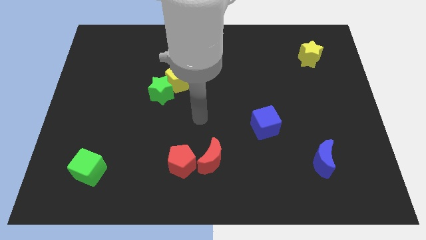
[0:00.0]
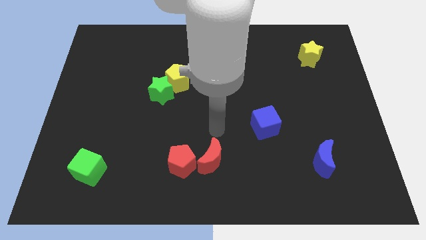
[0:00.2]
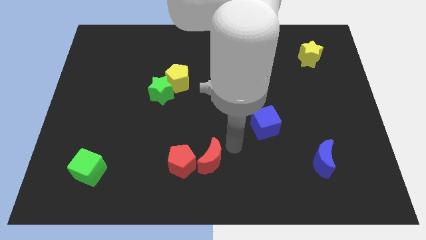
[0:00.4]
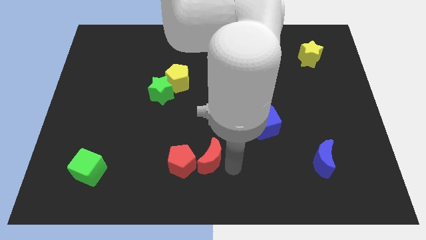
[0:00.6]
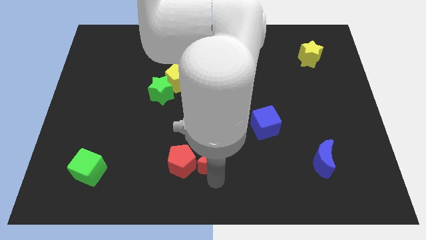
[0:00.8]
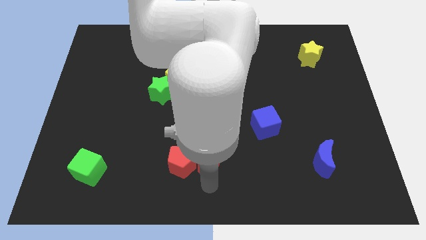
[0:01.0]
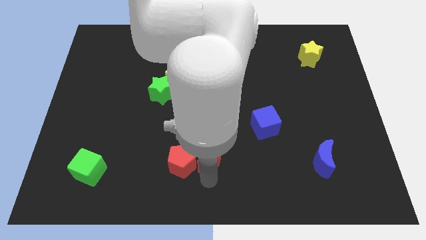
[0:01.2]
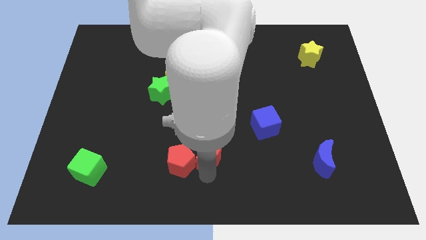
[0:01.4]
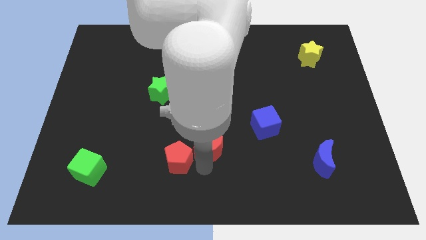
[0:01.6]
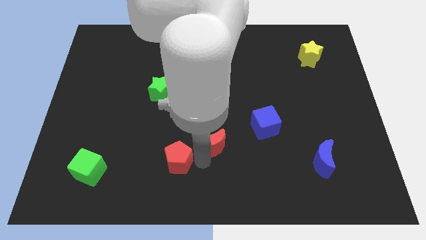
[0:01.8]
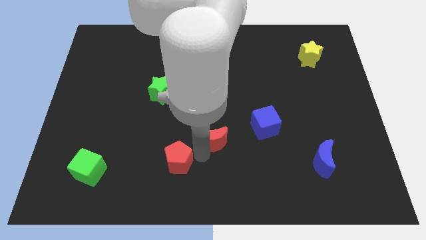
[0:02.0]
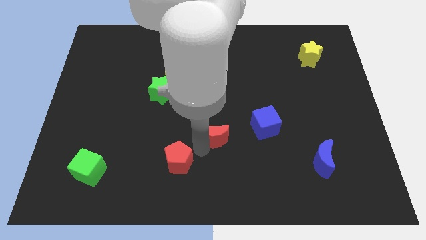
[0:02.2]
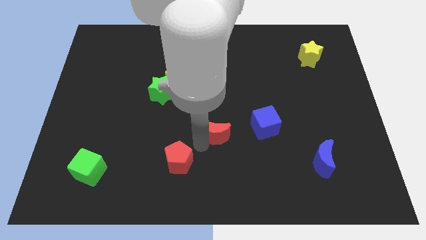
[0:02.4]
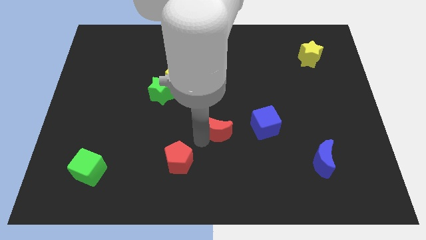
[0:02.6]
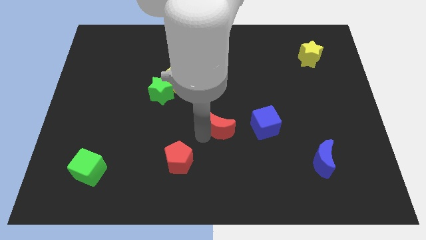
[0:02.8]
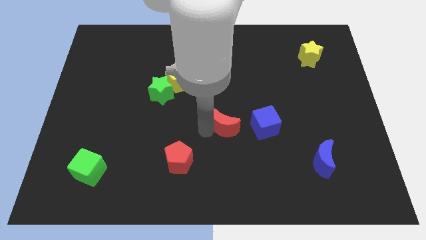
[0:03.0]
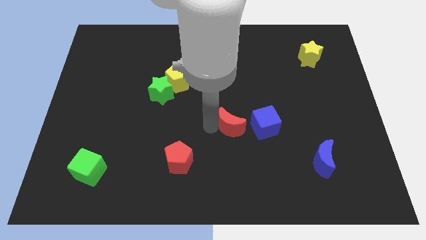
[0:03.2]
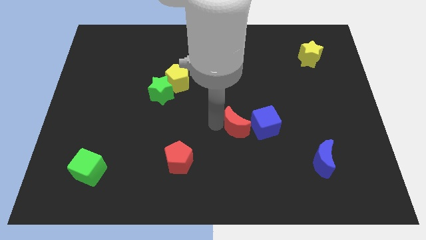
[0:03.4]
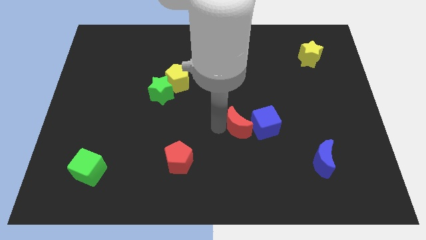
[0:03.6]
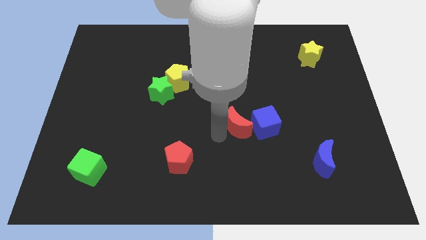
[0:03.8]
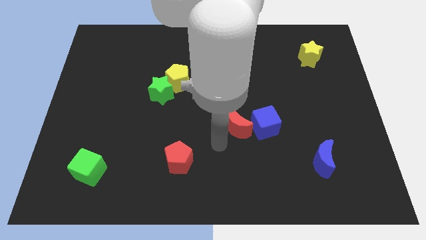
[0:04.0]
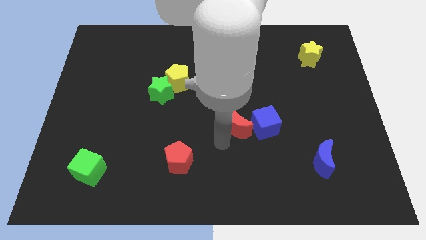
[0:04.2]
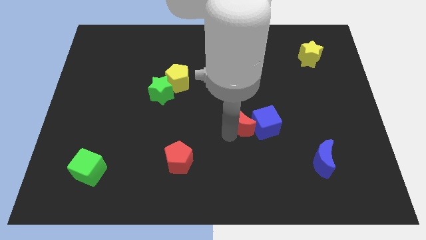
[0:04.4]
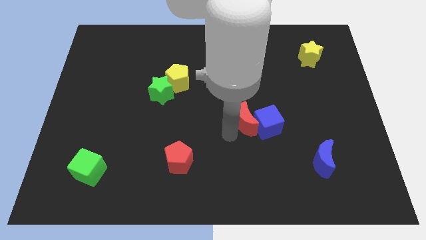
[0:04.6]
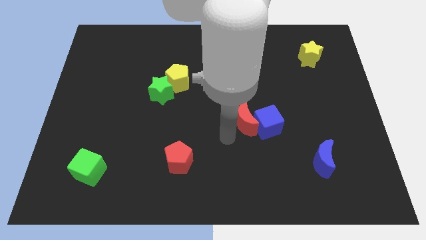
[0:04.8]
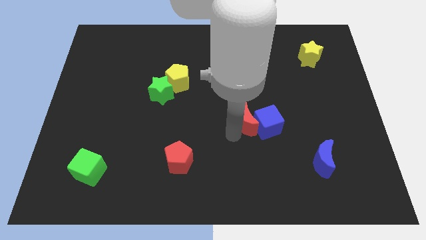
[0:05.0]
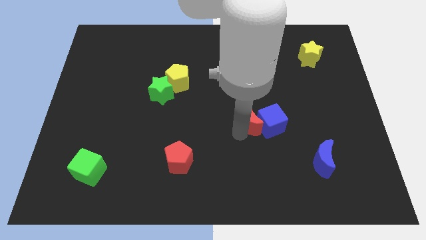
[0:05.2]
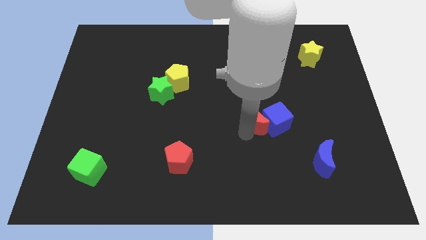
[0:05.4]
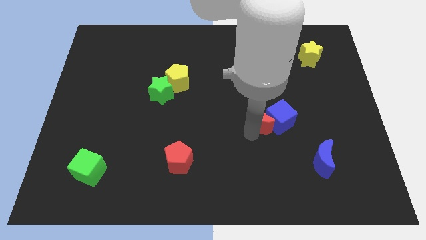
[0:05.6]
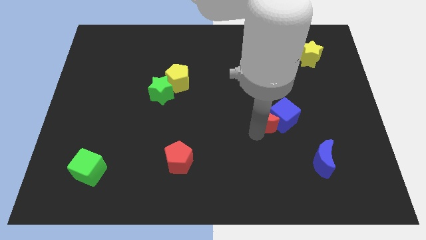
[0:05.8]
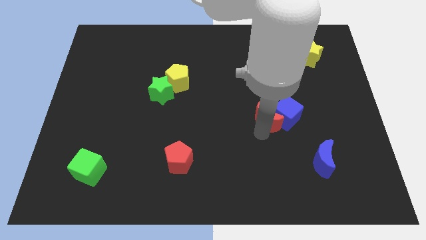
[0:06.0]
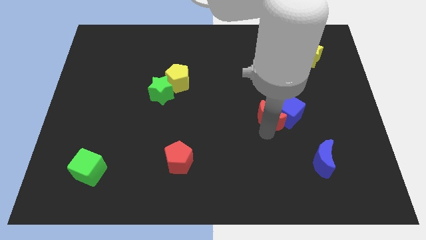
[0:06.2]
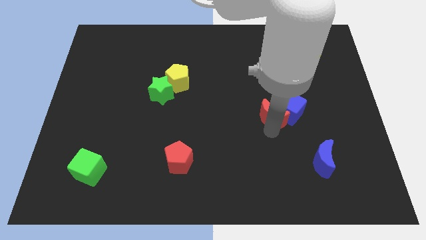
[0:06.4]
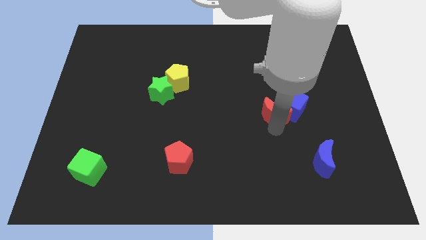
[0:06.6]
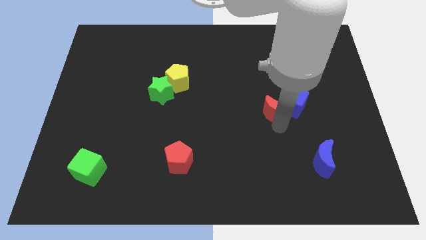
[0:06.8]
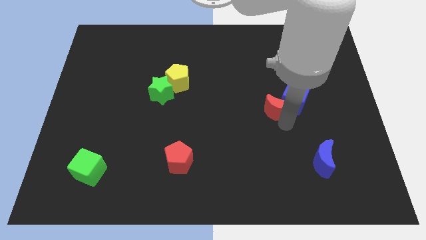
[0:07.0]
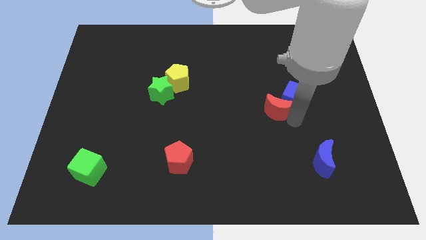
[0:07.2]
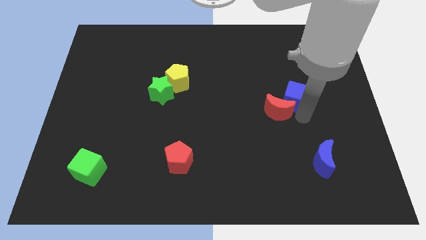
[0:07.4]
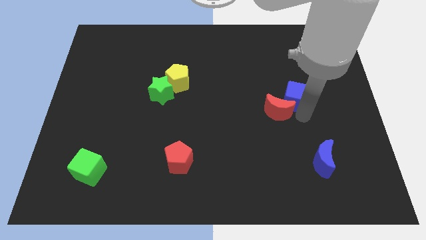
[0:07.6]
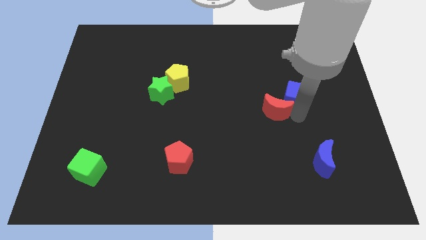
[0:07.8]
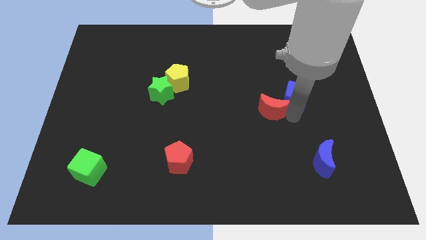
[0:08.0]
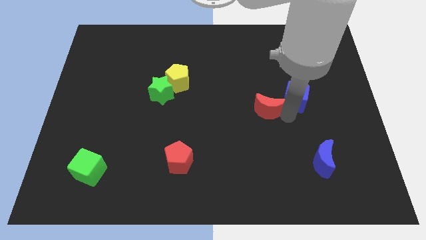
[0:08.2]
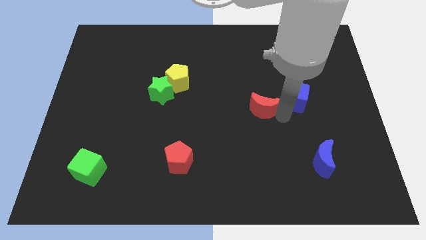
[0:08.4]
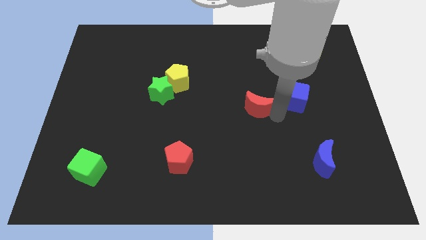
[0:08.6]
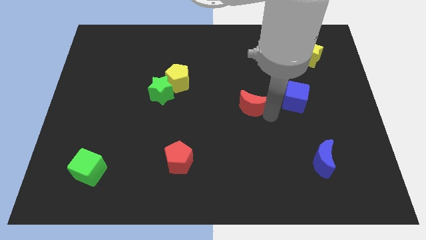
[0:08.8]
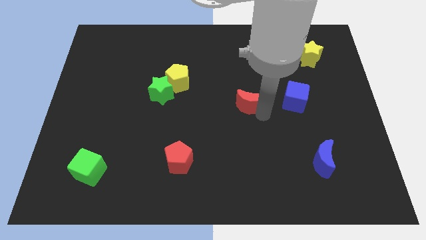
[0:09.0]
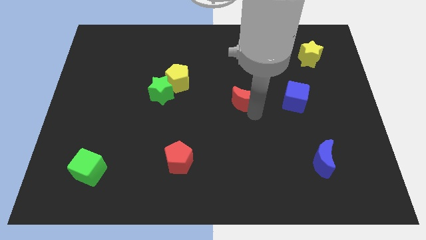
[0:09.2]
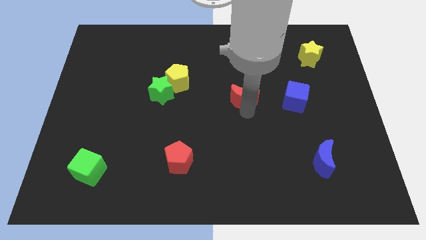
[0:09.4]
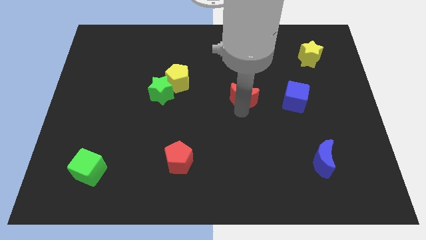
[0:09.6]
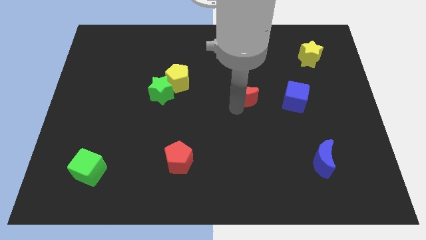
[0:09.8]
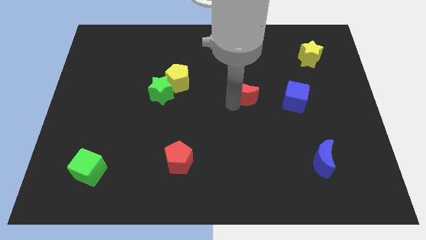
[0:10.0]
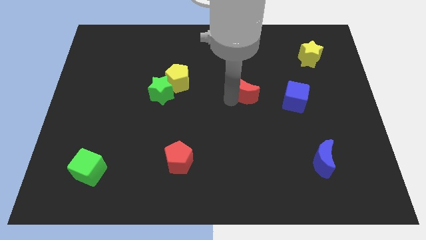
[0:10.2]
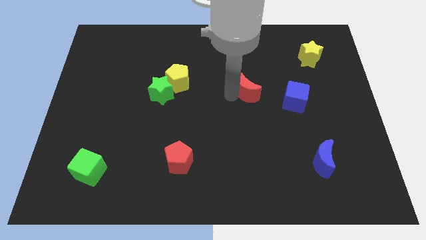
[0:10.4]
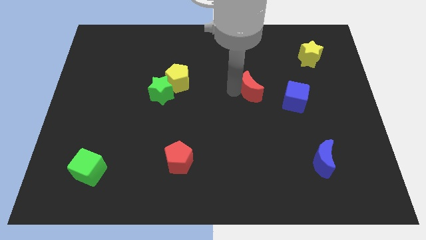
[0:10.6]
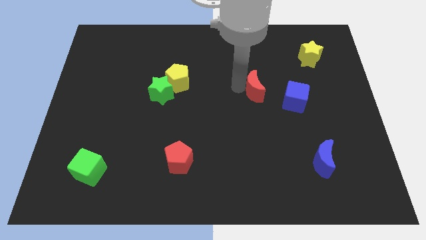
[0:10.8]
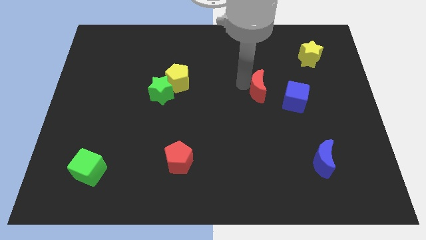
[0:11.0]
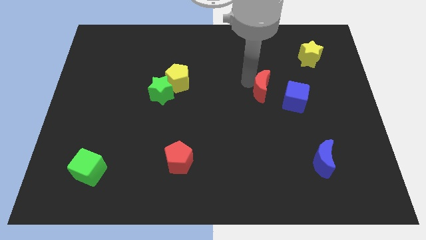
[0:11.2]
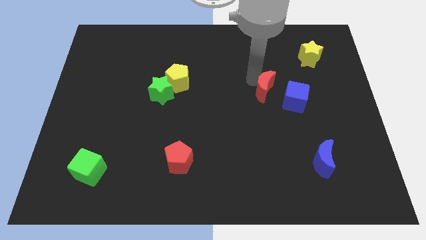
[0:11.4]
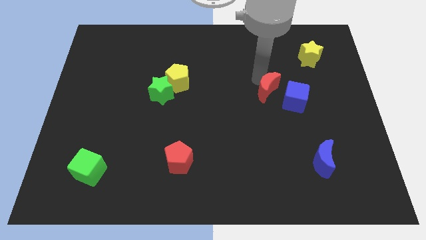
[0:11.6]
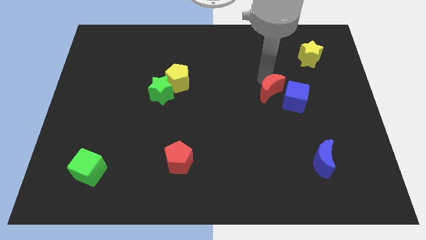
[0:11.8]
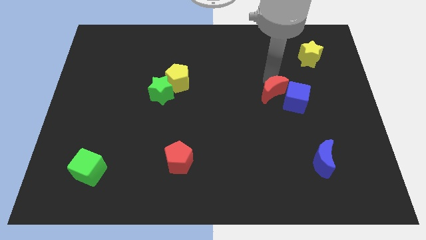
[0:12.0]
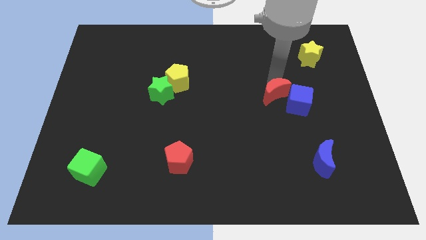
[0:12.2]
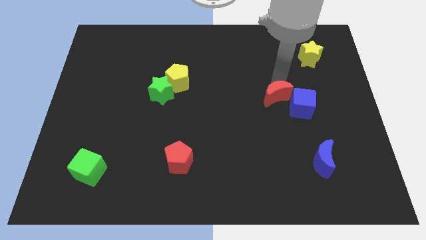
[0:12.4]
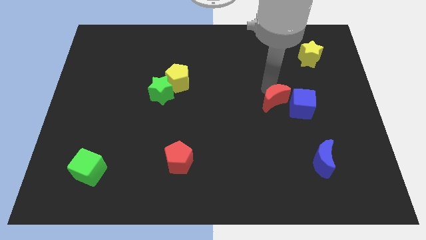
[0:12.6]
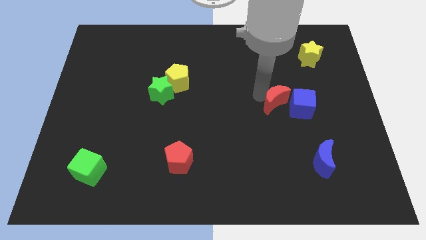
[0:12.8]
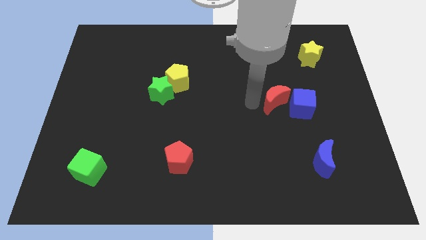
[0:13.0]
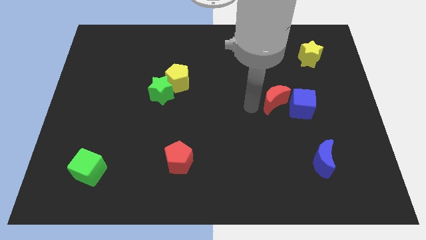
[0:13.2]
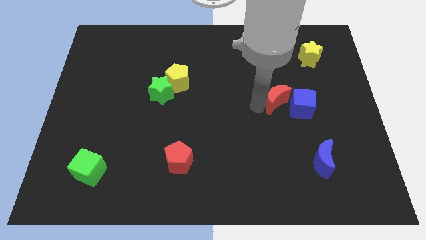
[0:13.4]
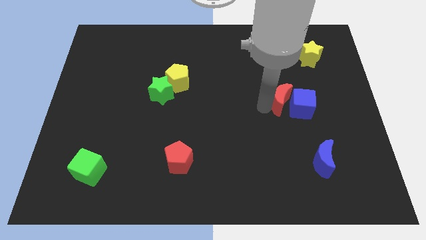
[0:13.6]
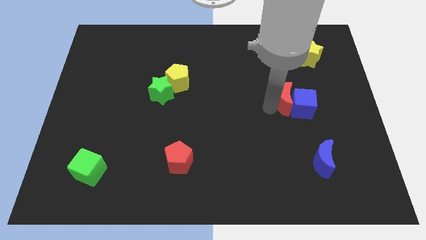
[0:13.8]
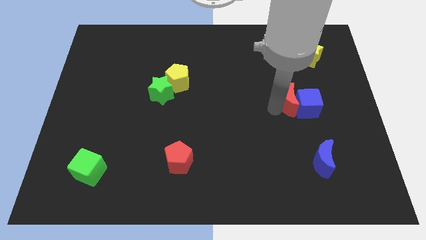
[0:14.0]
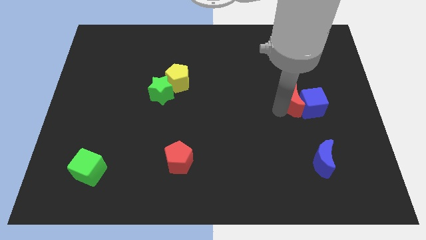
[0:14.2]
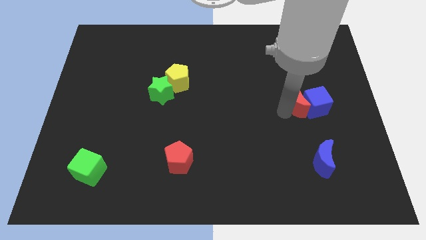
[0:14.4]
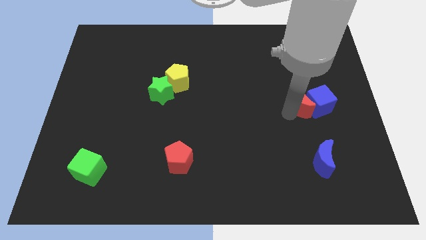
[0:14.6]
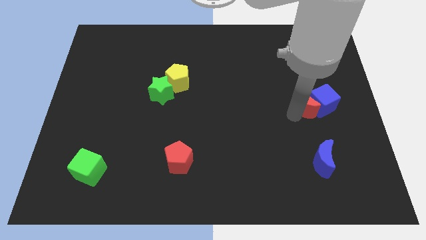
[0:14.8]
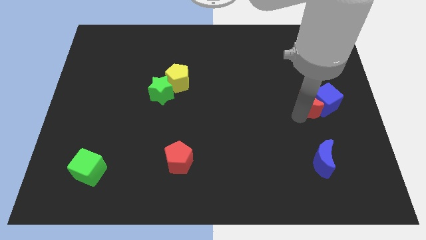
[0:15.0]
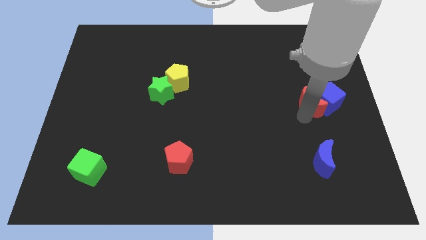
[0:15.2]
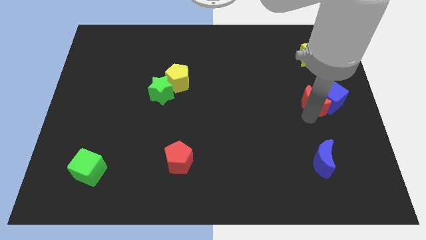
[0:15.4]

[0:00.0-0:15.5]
move the red moon to the bottom side of the yellow star

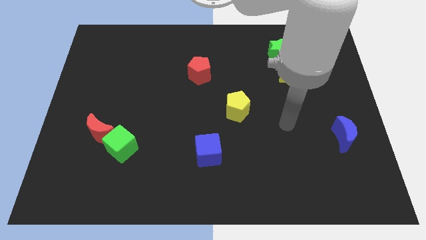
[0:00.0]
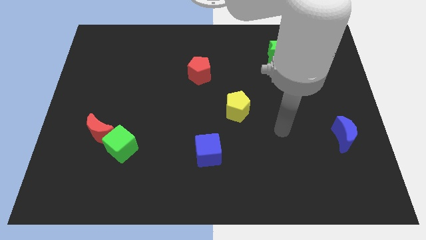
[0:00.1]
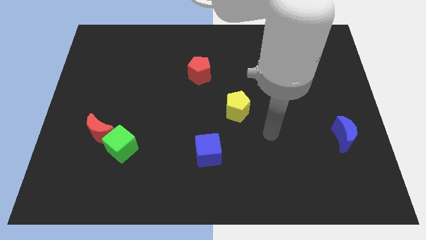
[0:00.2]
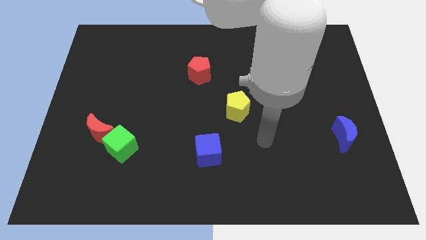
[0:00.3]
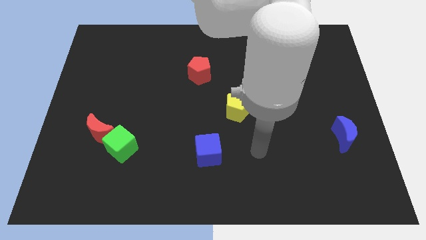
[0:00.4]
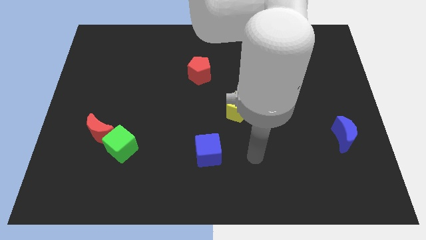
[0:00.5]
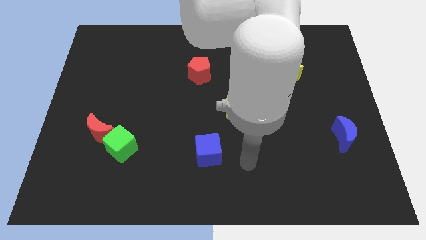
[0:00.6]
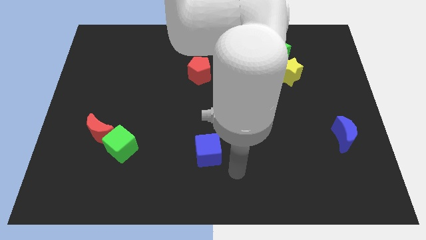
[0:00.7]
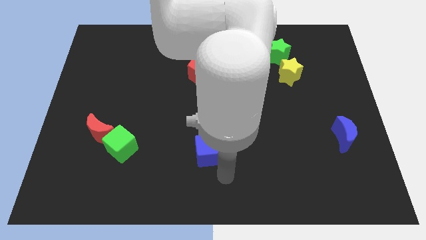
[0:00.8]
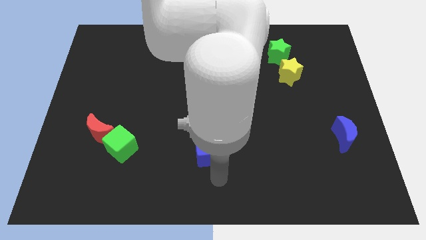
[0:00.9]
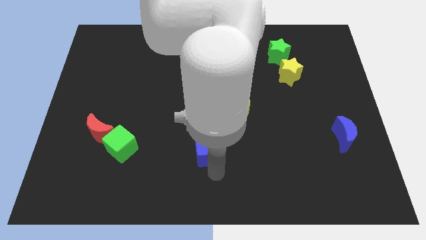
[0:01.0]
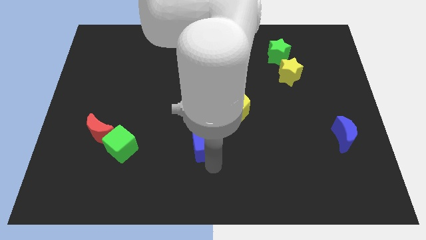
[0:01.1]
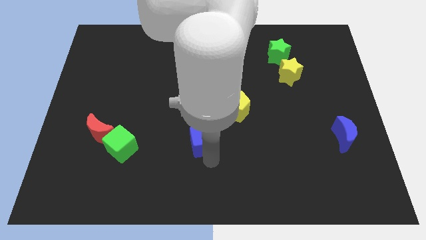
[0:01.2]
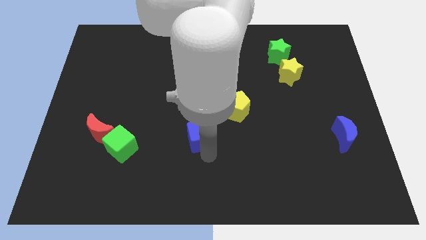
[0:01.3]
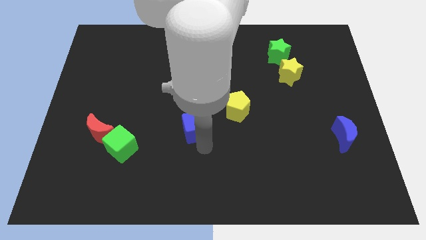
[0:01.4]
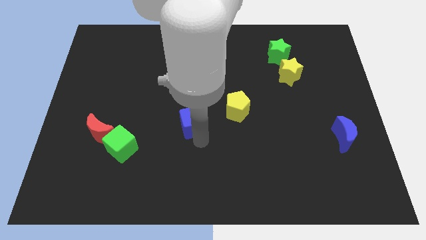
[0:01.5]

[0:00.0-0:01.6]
slide the blue cube left of the yellow pentagon
